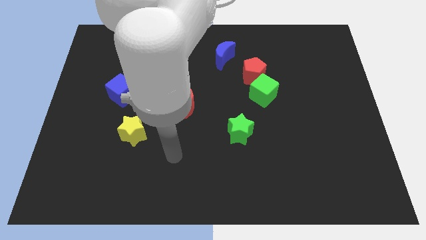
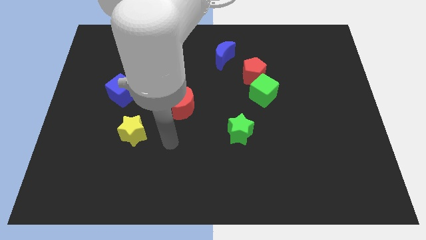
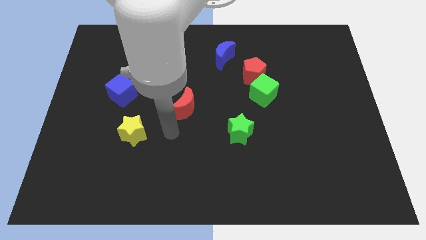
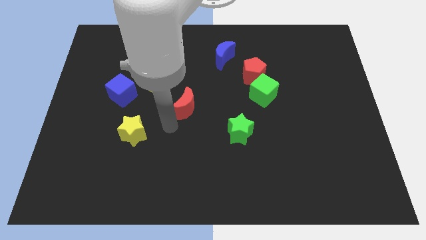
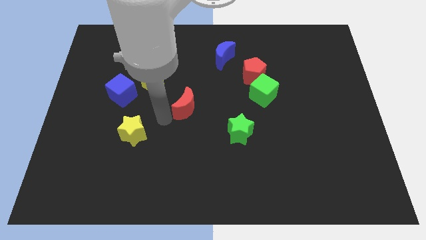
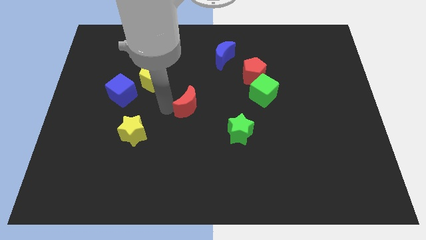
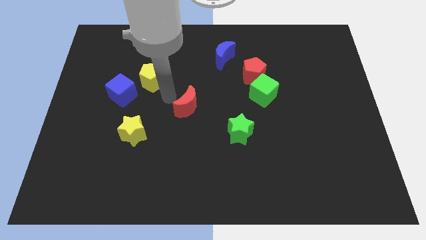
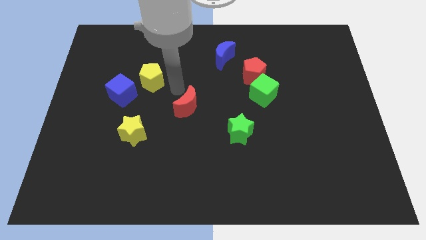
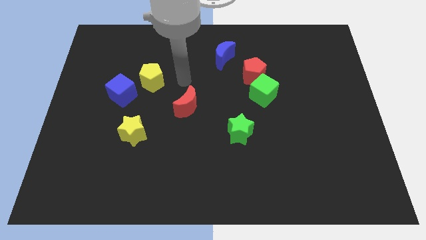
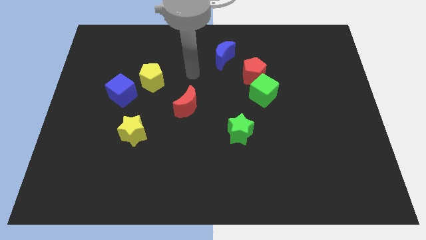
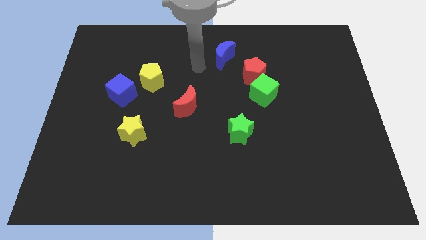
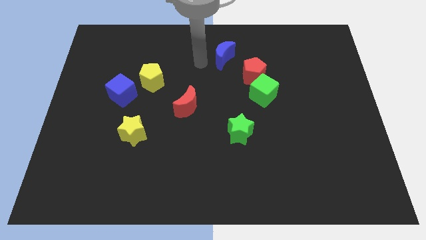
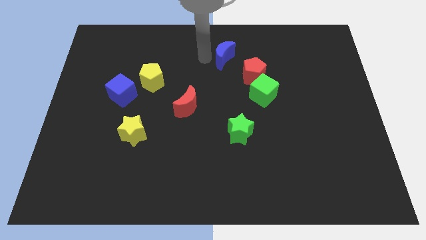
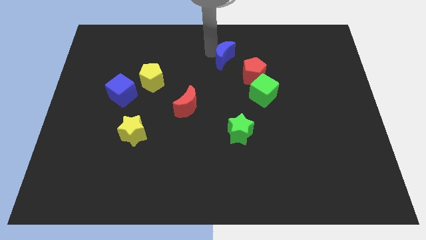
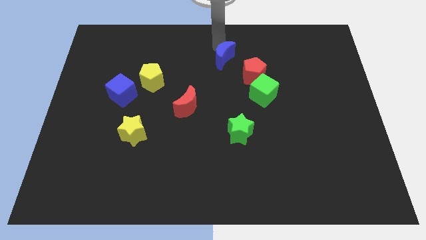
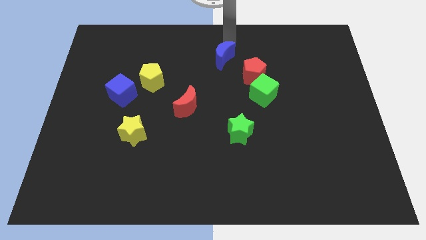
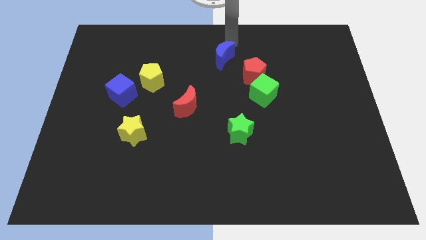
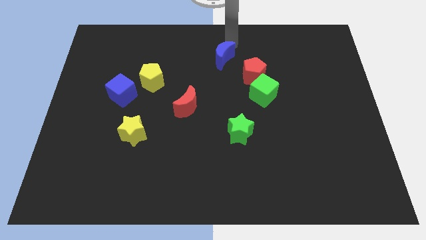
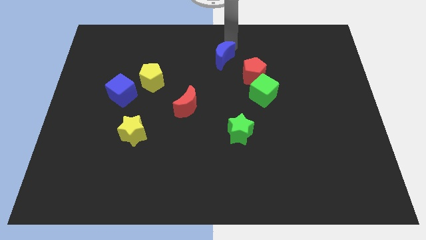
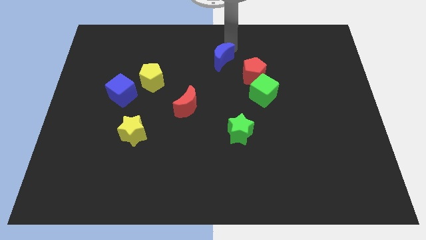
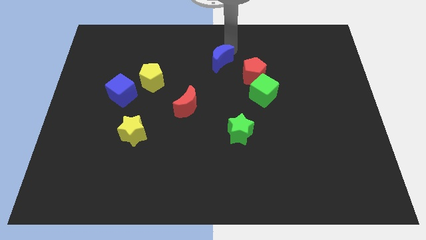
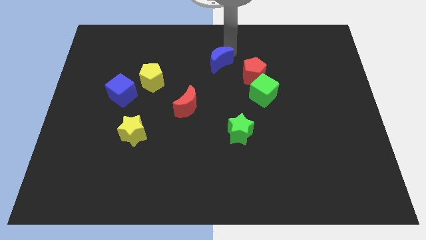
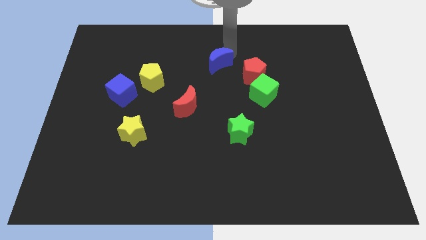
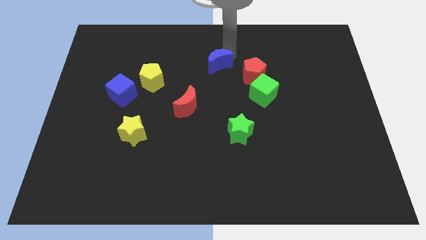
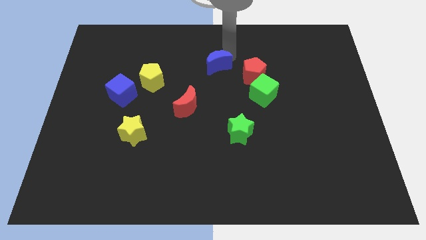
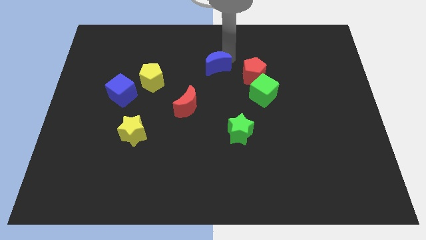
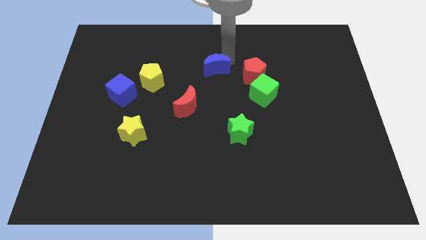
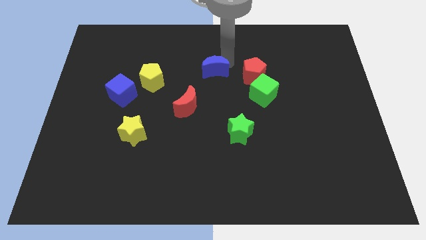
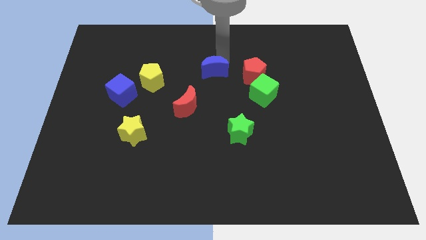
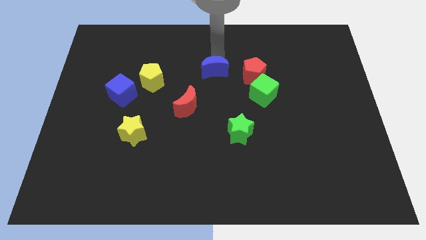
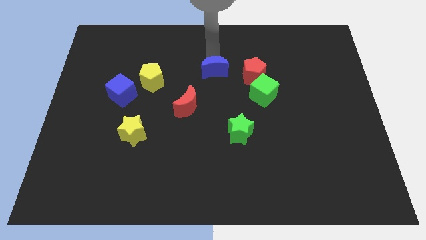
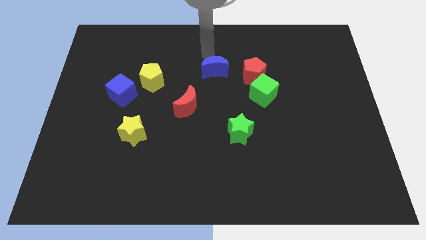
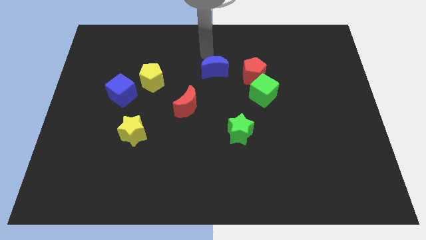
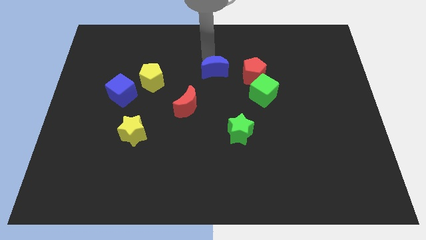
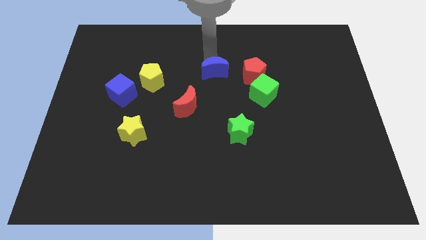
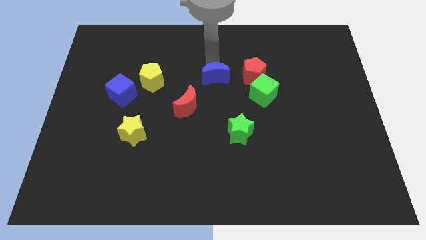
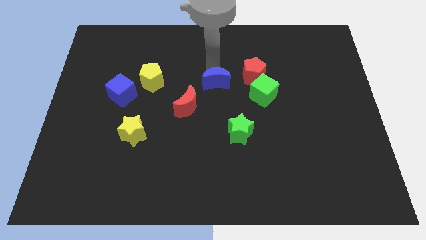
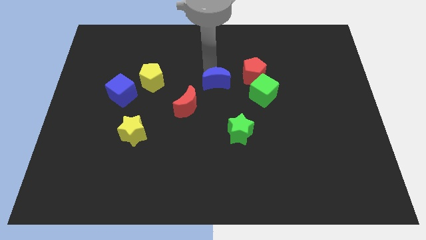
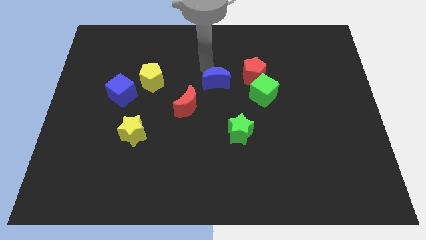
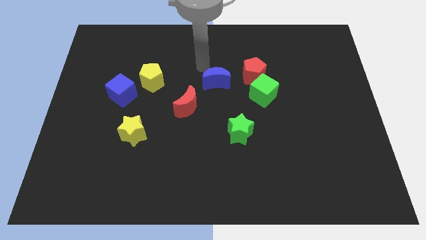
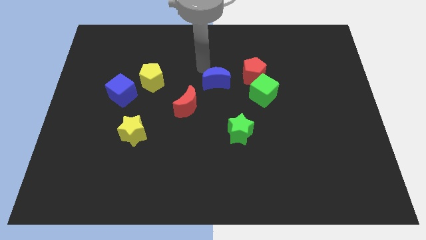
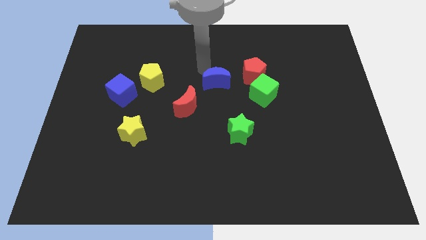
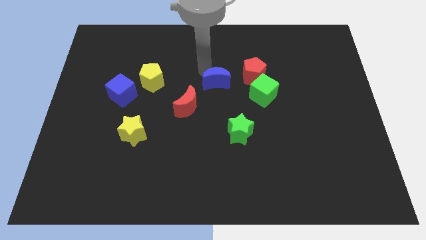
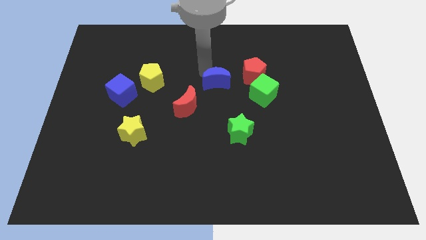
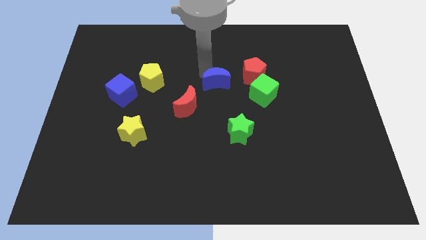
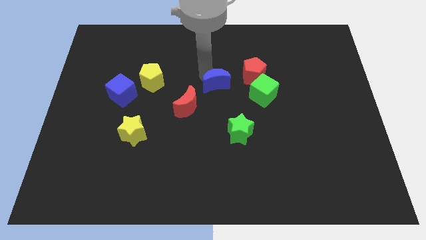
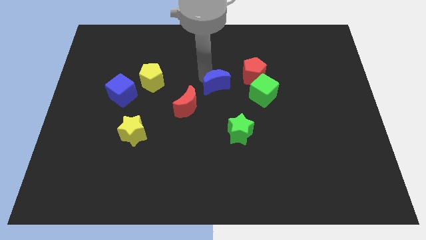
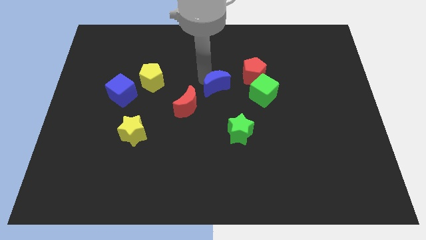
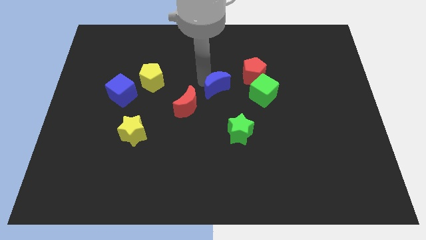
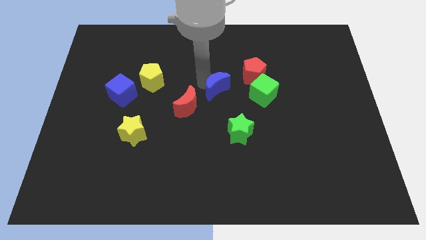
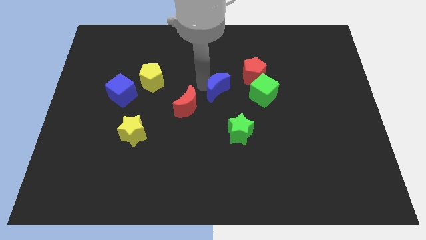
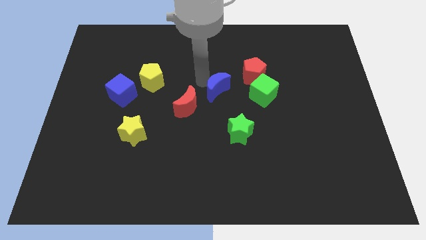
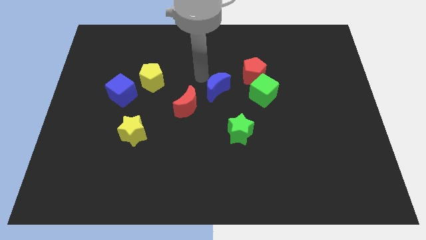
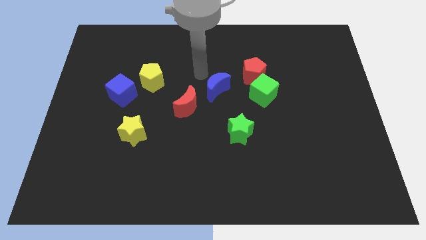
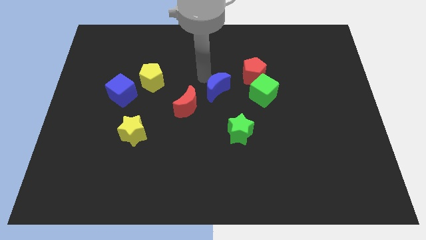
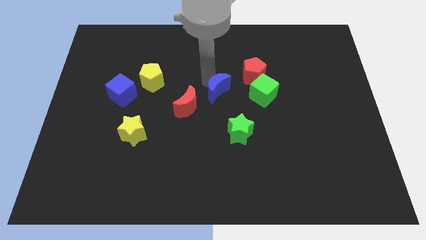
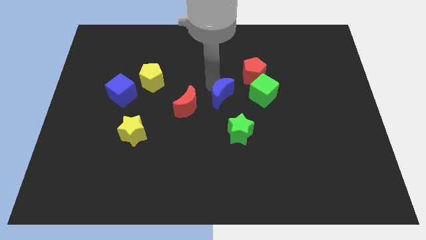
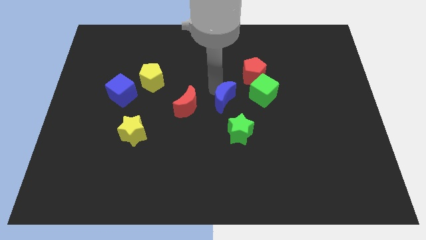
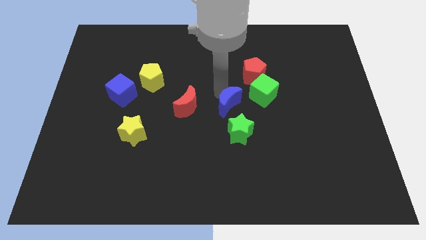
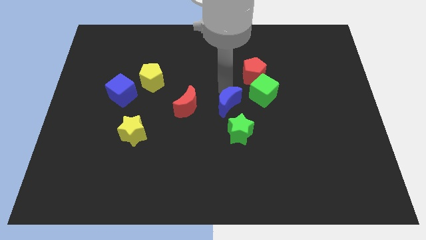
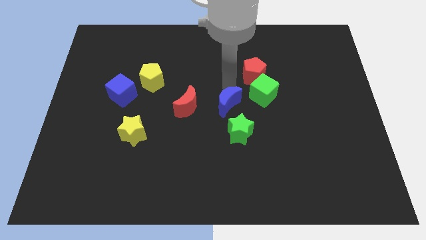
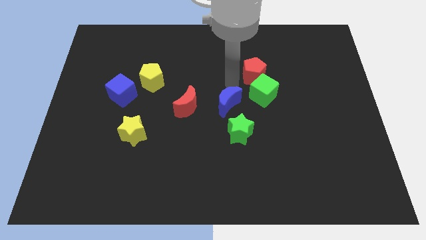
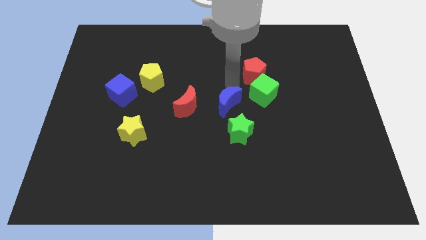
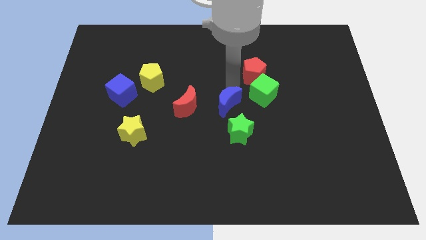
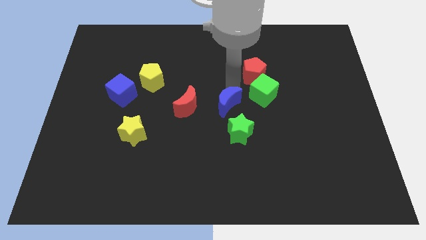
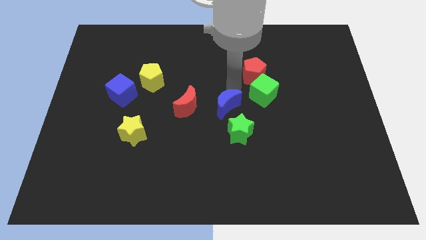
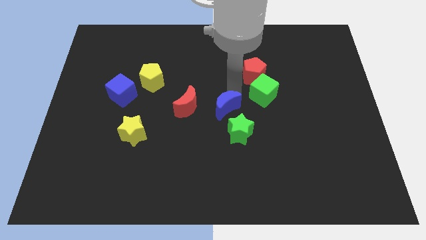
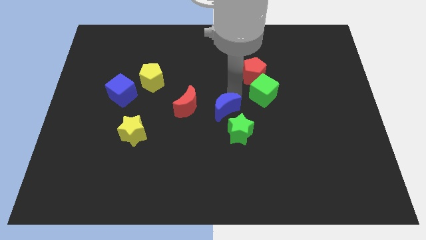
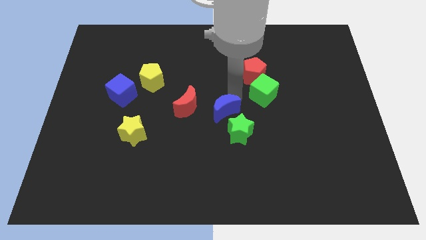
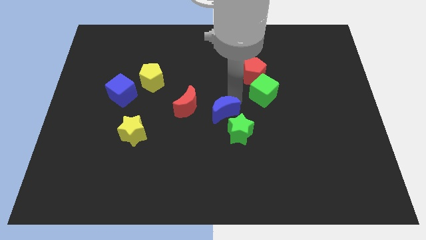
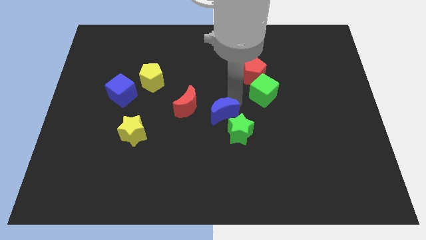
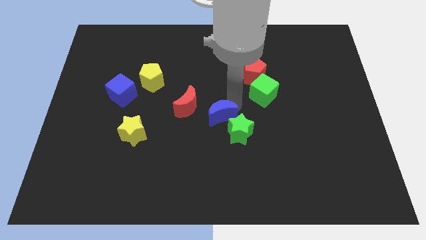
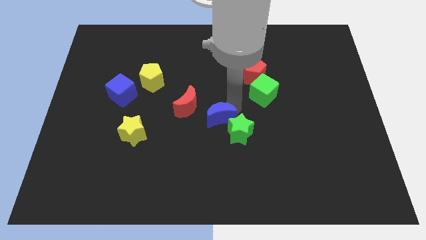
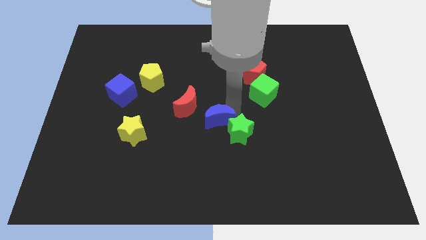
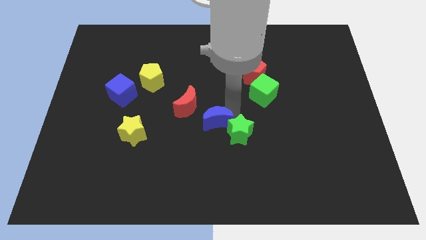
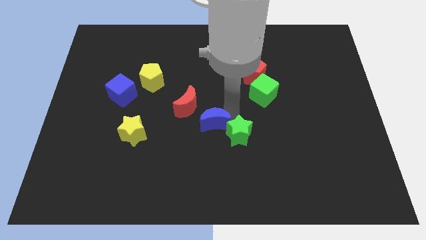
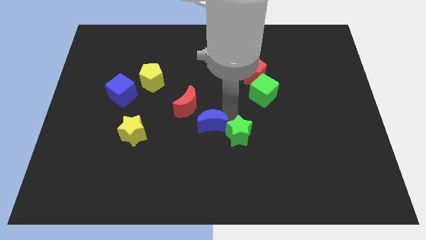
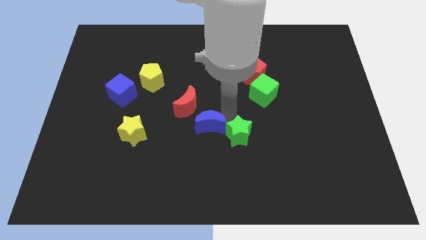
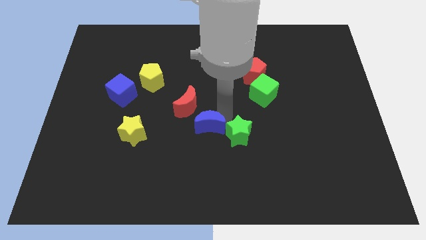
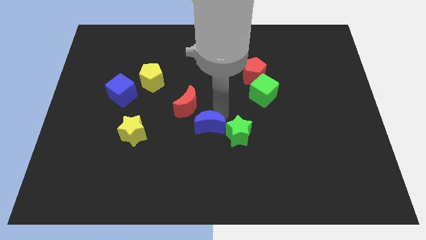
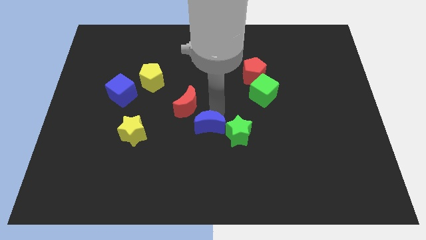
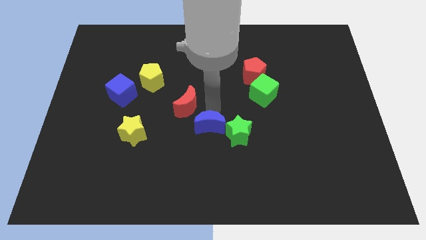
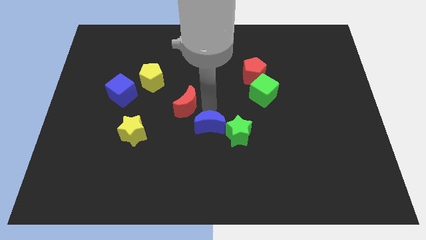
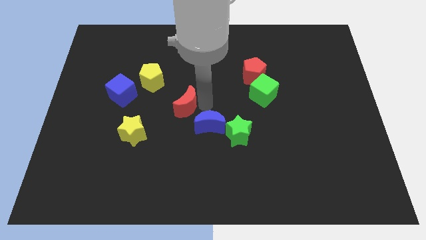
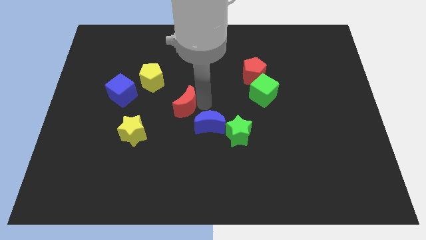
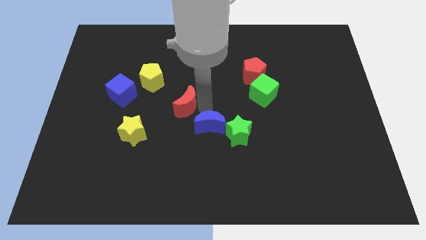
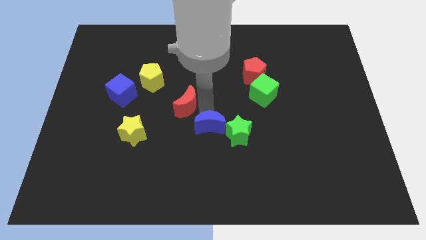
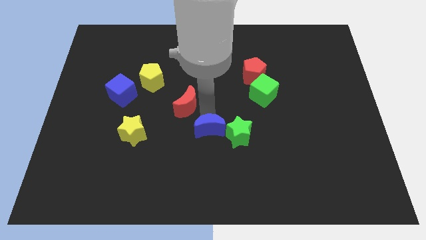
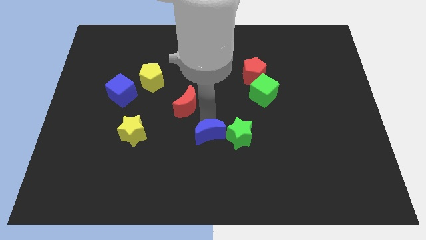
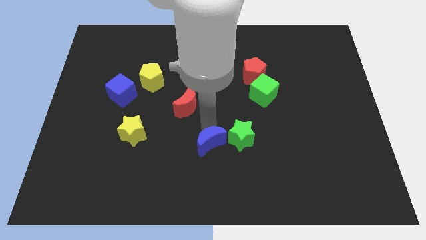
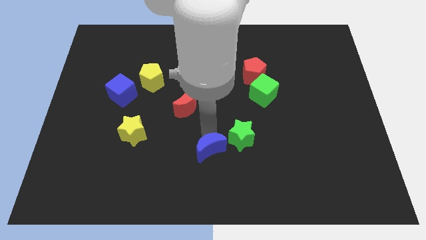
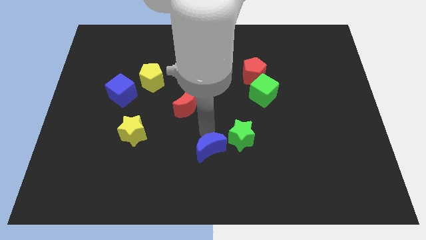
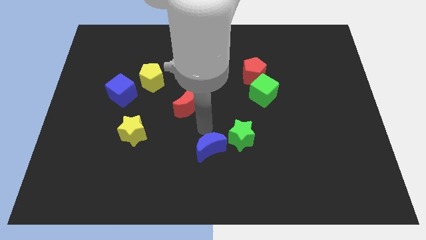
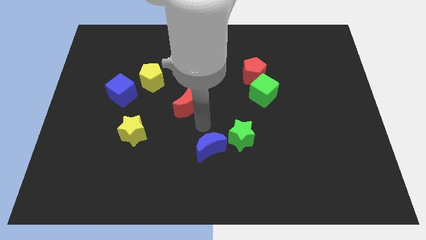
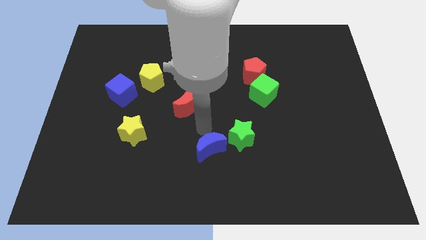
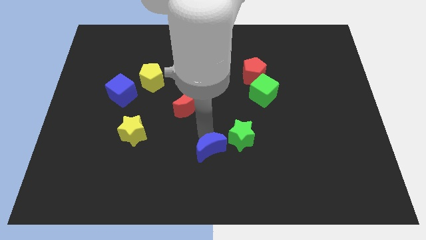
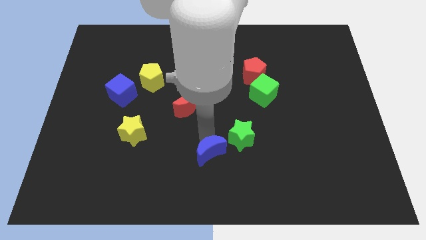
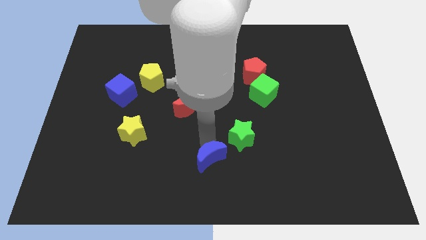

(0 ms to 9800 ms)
put the blue moon to the bottom
